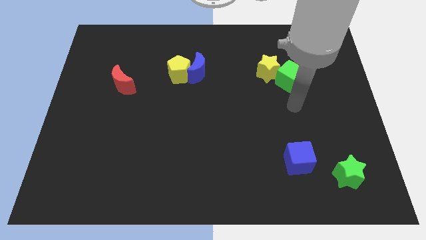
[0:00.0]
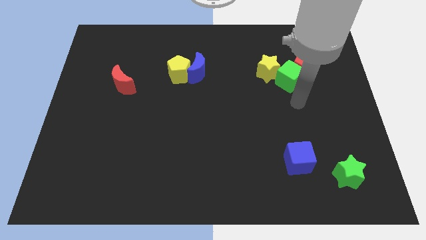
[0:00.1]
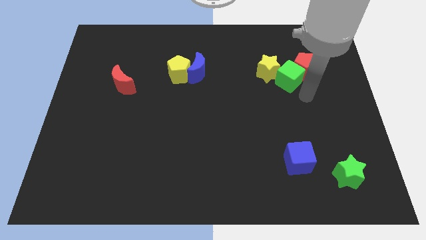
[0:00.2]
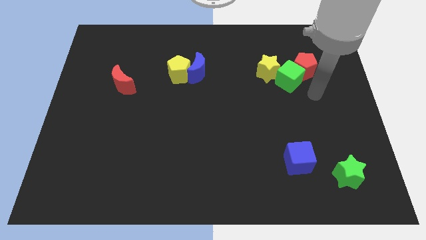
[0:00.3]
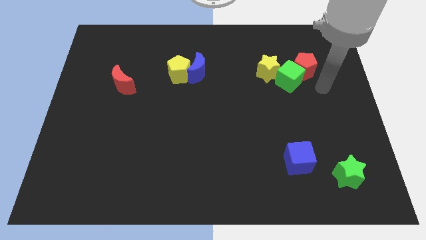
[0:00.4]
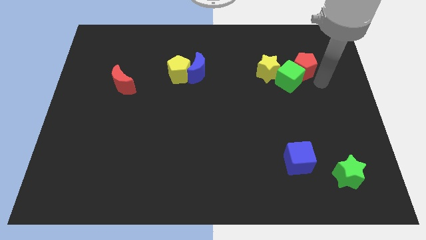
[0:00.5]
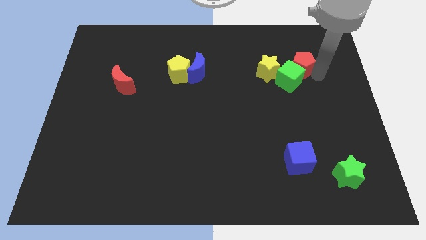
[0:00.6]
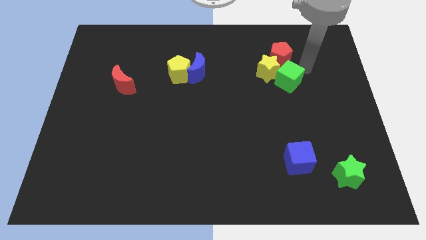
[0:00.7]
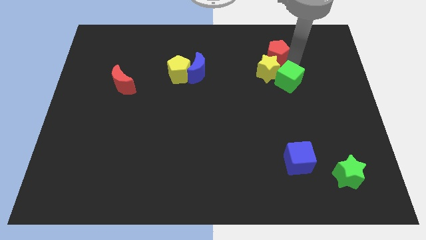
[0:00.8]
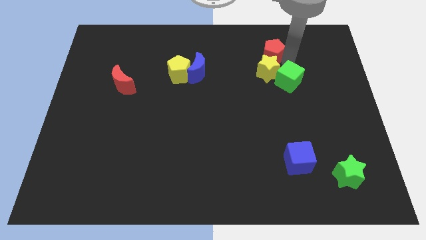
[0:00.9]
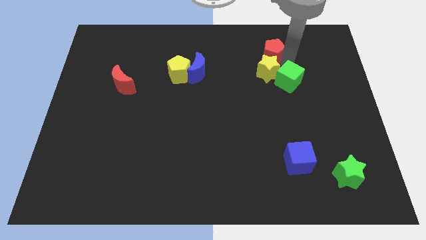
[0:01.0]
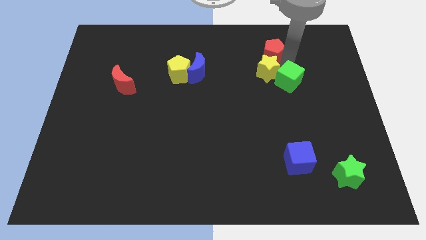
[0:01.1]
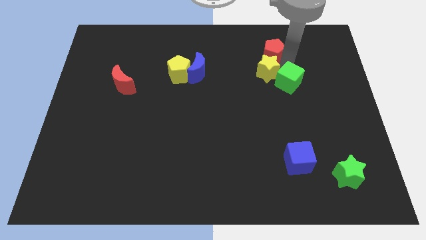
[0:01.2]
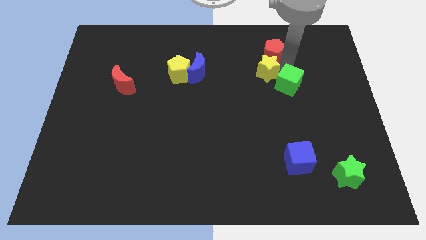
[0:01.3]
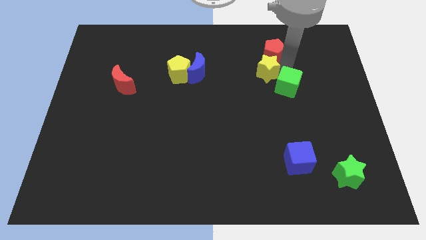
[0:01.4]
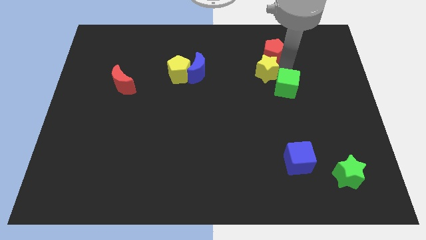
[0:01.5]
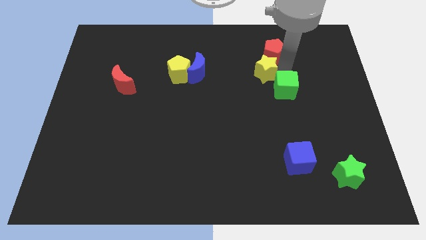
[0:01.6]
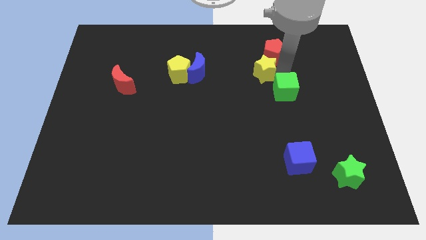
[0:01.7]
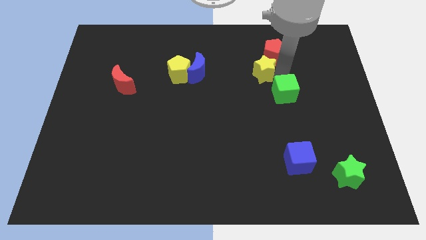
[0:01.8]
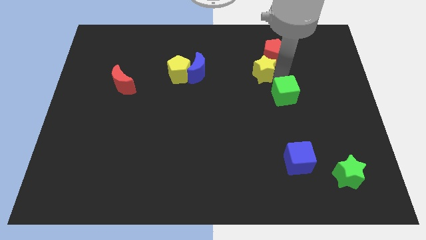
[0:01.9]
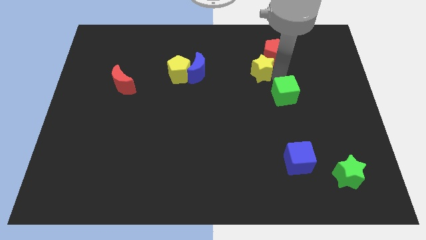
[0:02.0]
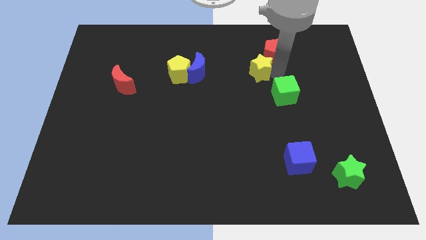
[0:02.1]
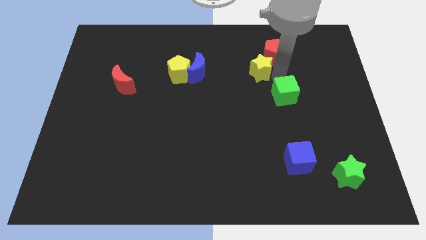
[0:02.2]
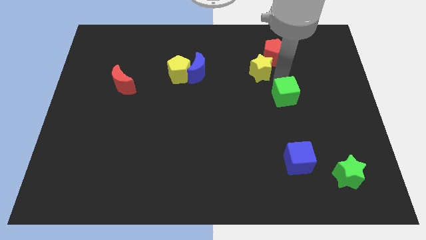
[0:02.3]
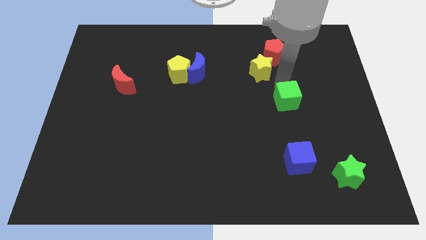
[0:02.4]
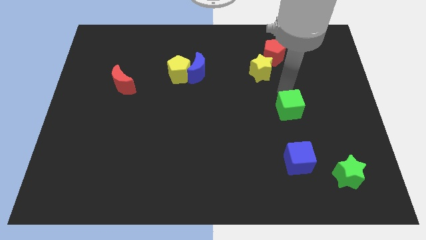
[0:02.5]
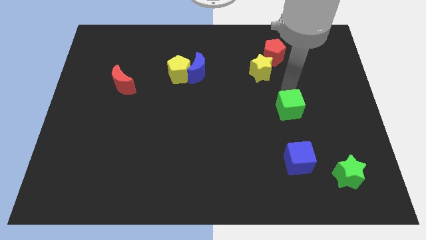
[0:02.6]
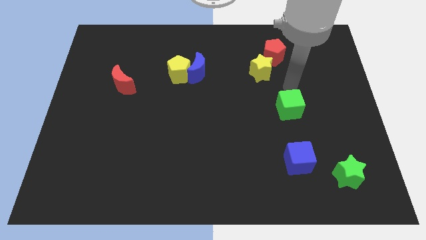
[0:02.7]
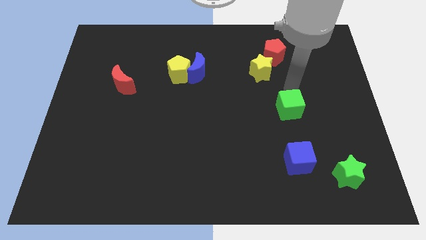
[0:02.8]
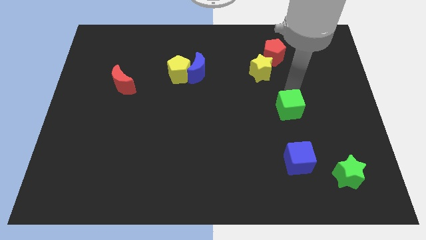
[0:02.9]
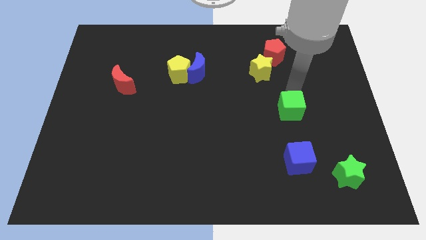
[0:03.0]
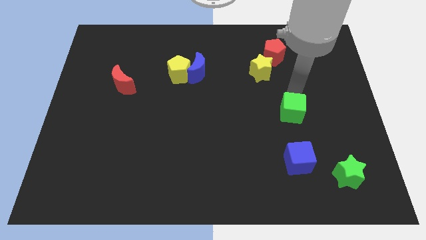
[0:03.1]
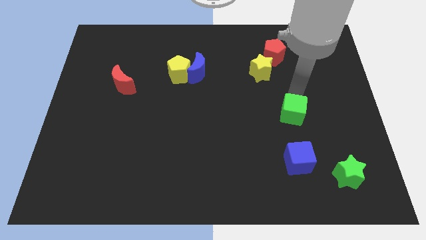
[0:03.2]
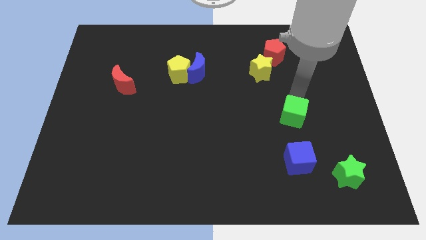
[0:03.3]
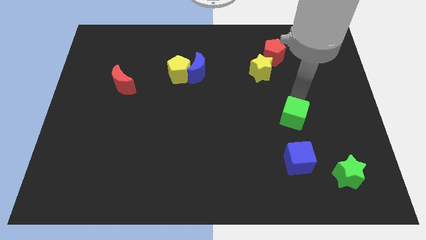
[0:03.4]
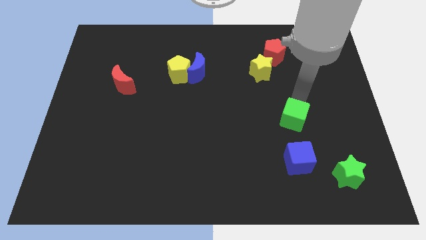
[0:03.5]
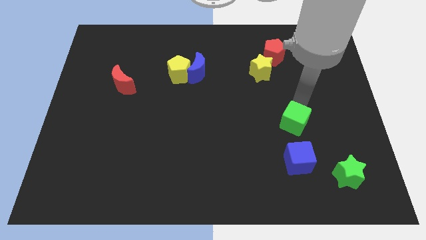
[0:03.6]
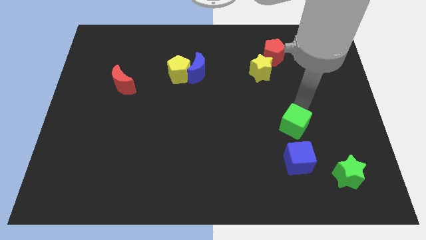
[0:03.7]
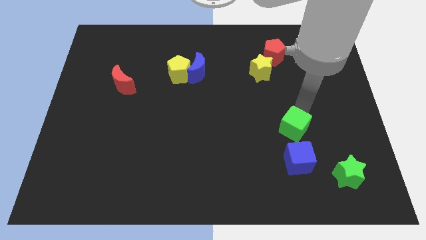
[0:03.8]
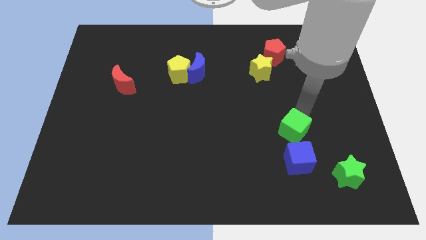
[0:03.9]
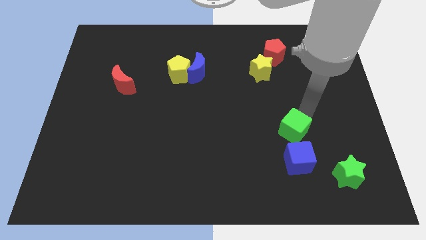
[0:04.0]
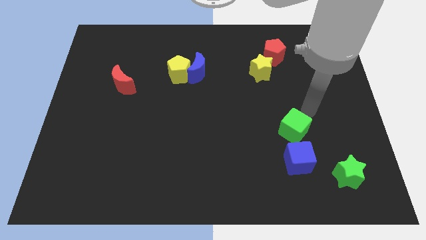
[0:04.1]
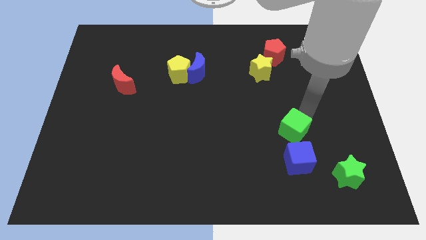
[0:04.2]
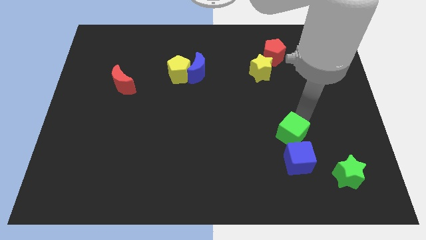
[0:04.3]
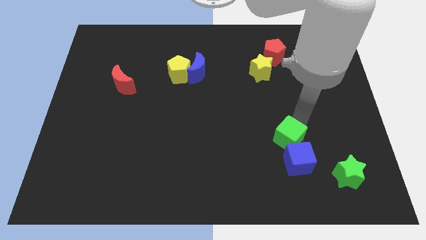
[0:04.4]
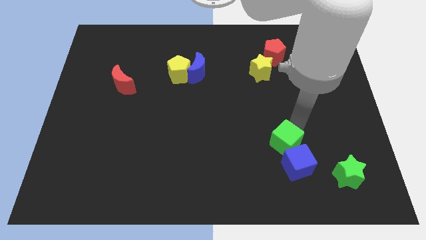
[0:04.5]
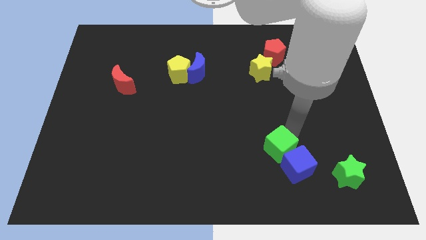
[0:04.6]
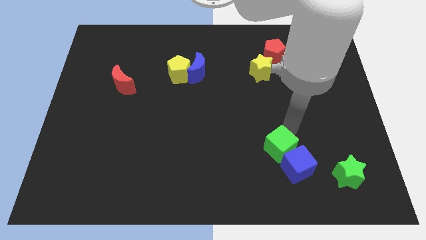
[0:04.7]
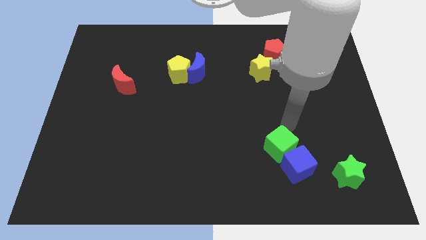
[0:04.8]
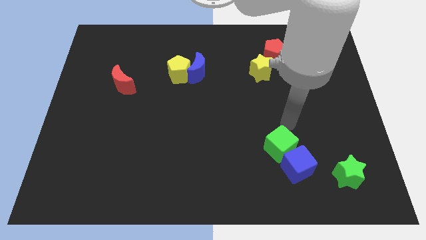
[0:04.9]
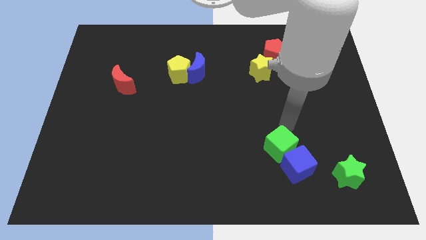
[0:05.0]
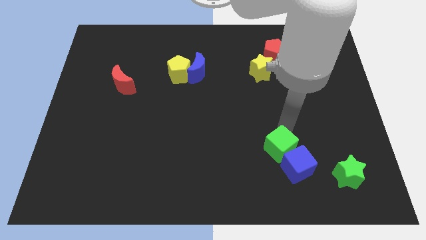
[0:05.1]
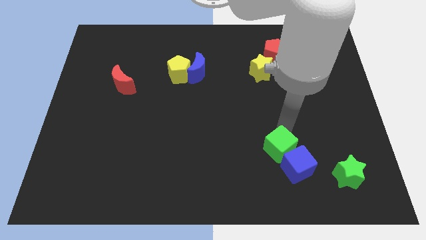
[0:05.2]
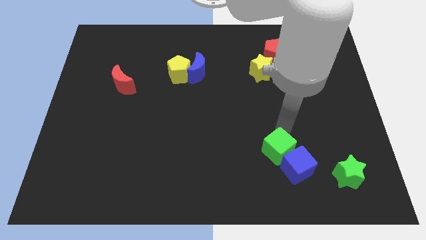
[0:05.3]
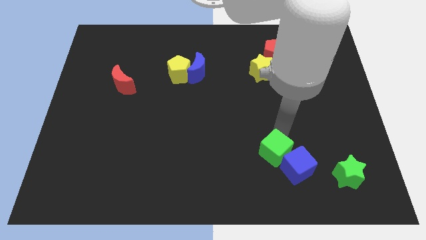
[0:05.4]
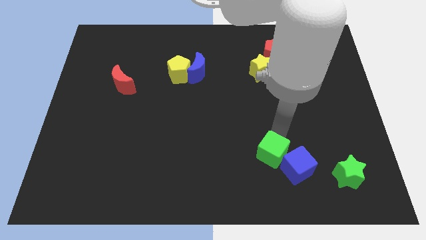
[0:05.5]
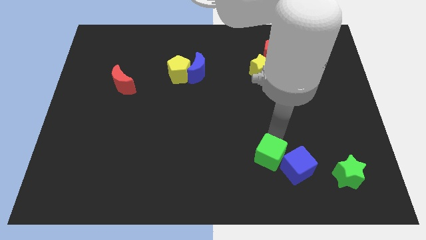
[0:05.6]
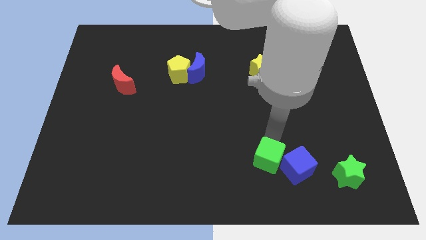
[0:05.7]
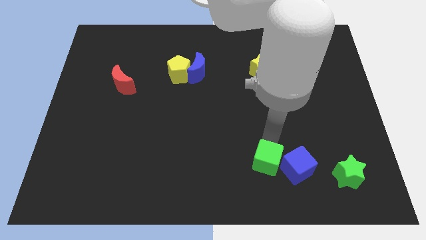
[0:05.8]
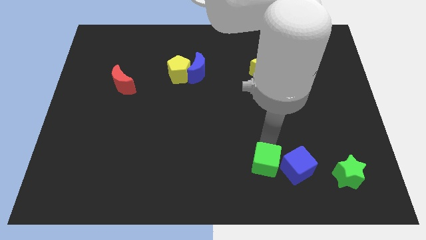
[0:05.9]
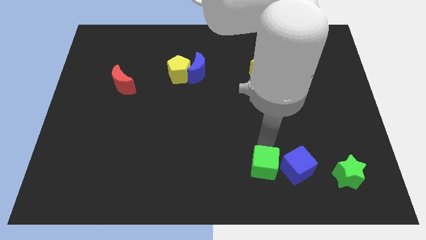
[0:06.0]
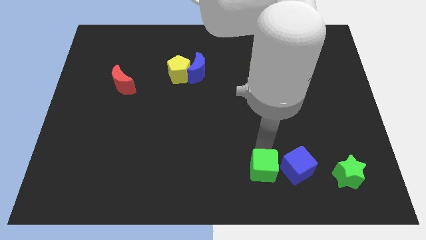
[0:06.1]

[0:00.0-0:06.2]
slide the green cube diagonally down and to the left of the blue cube

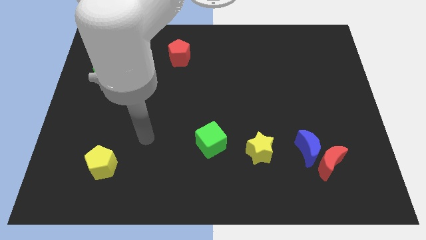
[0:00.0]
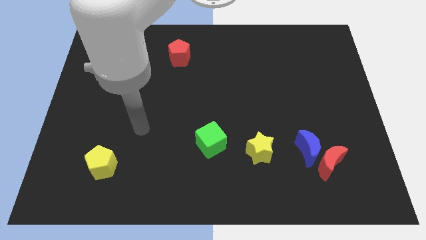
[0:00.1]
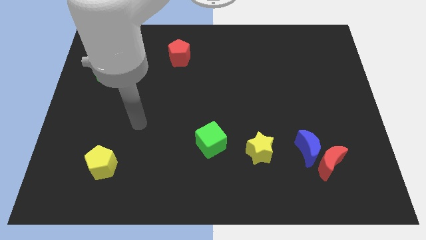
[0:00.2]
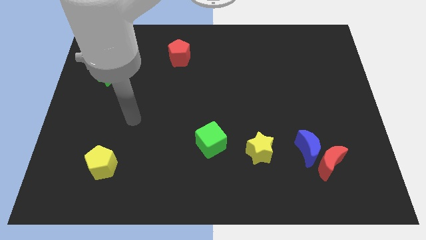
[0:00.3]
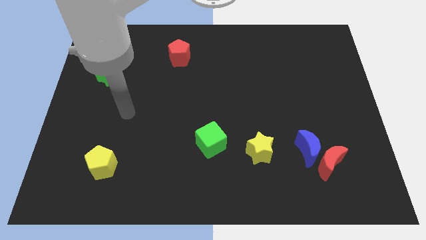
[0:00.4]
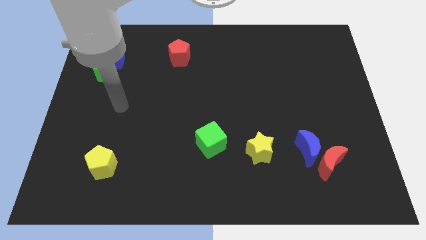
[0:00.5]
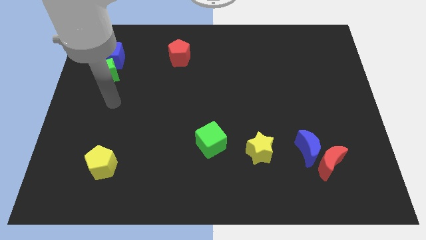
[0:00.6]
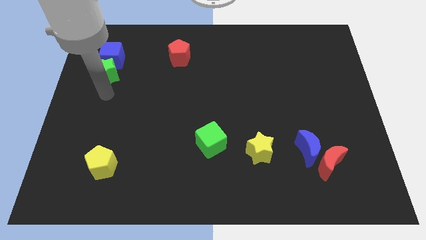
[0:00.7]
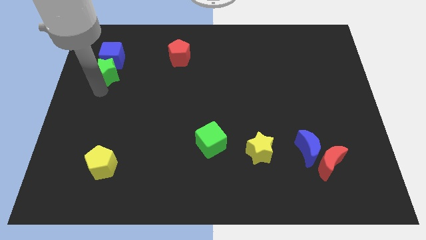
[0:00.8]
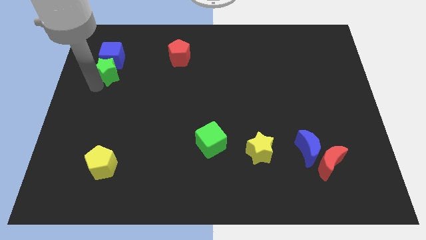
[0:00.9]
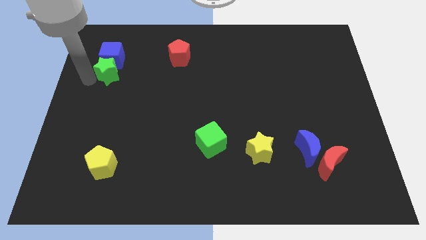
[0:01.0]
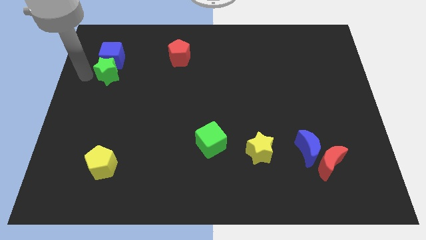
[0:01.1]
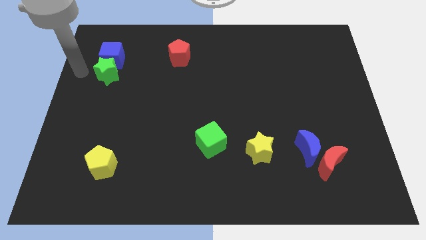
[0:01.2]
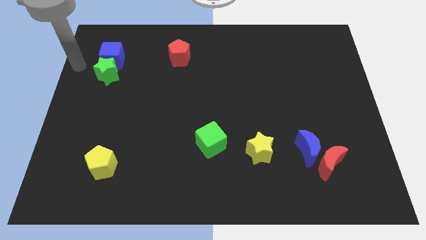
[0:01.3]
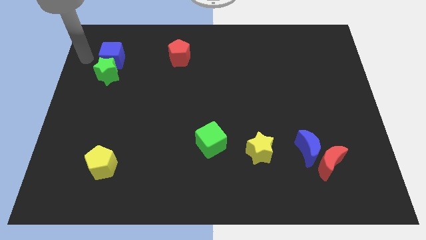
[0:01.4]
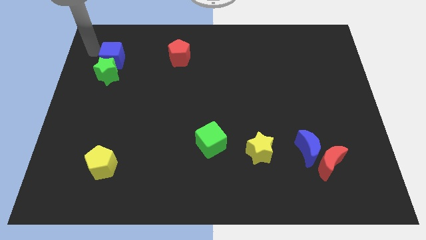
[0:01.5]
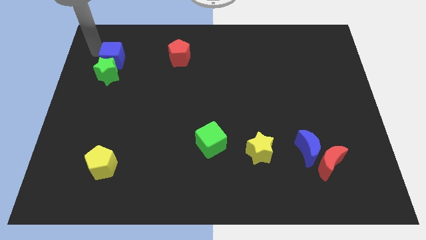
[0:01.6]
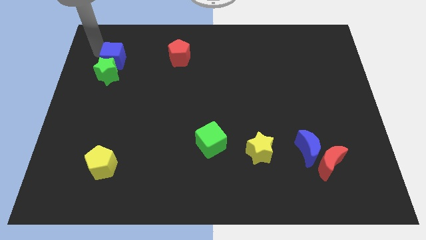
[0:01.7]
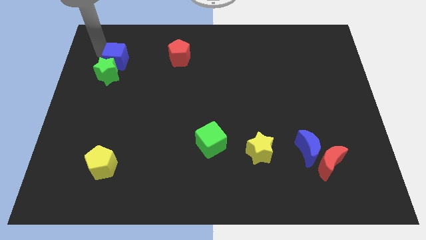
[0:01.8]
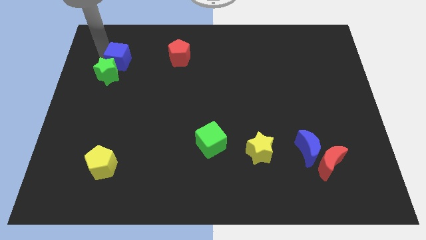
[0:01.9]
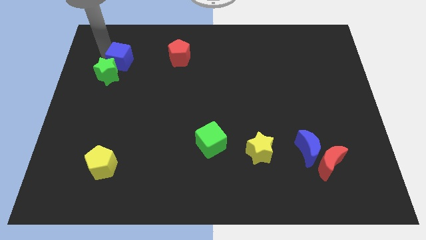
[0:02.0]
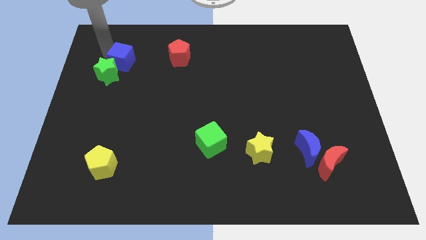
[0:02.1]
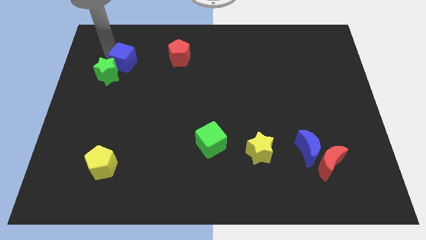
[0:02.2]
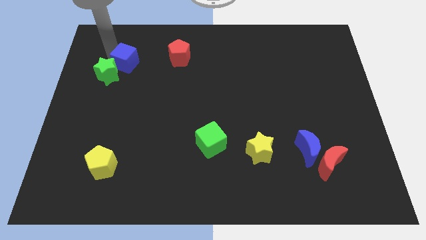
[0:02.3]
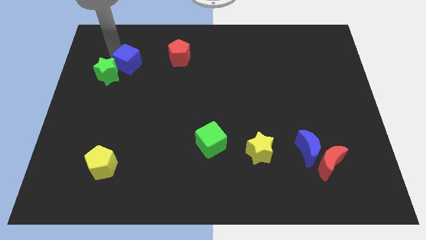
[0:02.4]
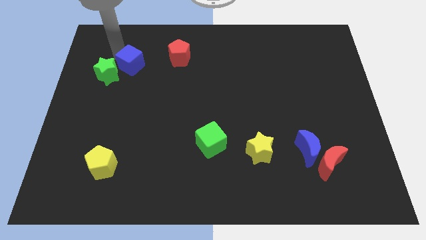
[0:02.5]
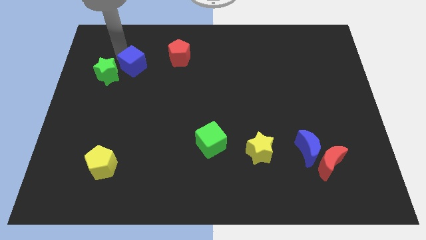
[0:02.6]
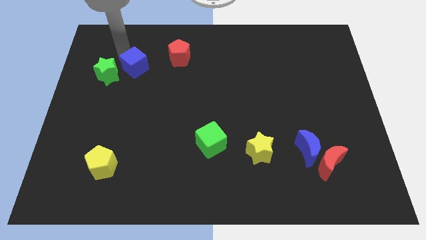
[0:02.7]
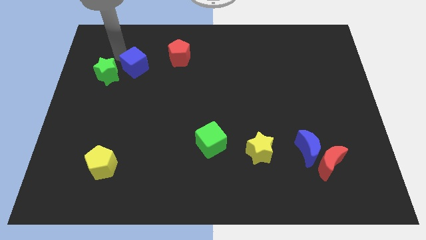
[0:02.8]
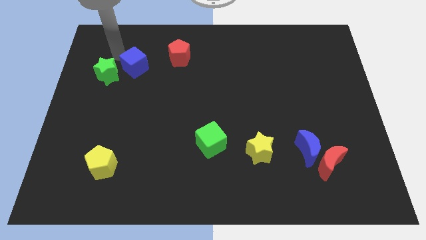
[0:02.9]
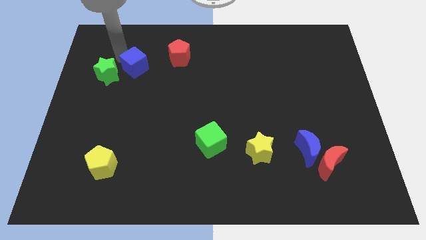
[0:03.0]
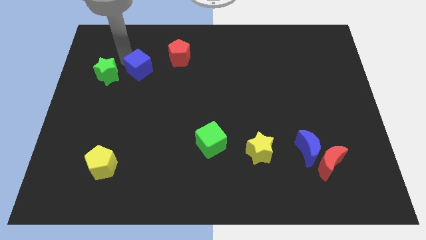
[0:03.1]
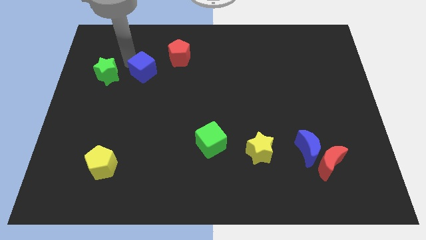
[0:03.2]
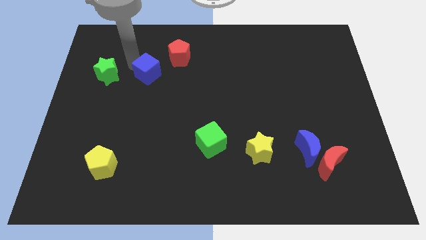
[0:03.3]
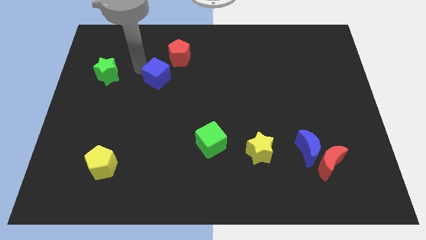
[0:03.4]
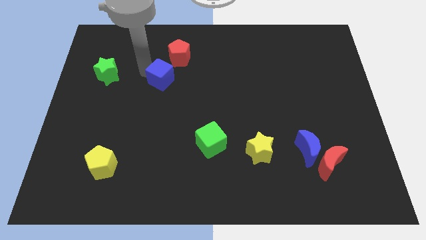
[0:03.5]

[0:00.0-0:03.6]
slide the blue cube to the bottom side of the red pentagon
